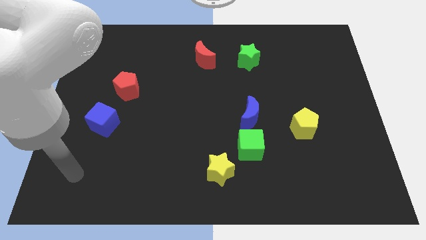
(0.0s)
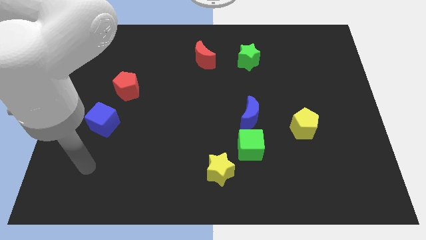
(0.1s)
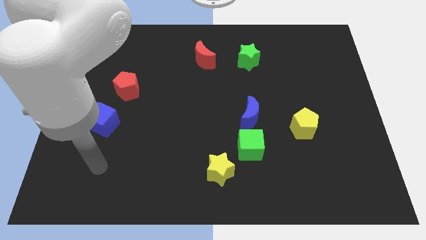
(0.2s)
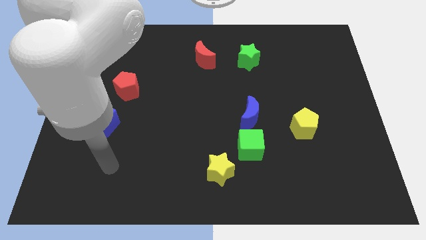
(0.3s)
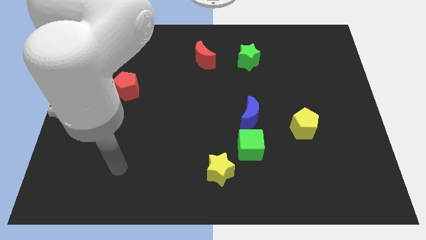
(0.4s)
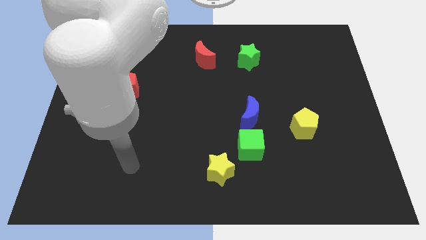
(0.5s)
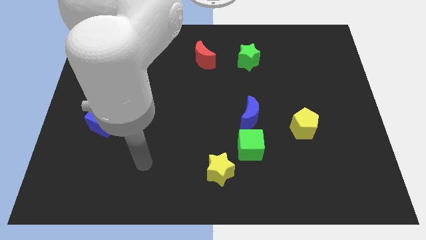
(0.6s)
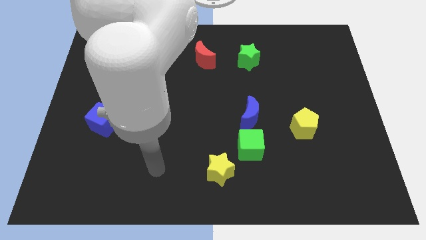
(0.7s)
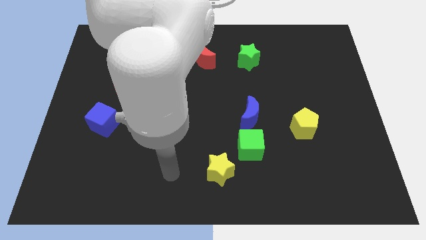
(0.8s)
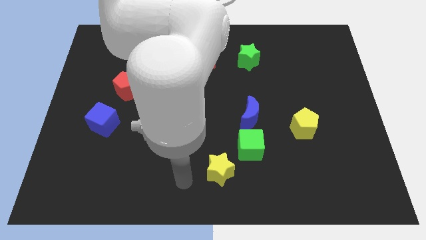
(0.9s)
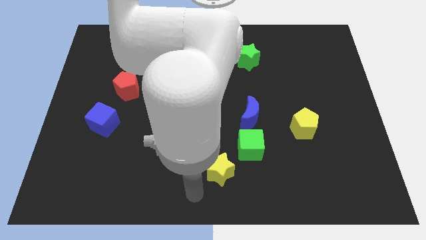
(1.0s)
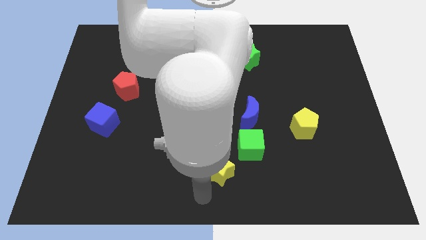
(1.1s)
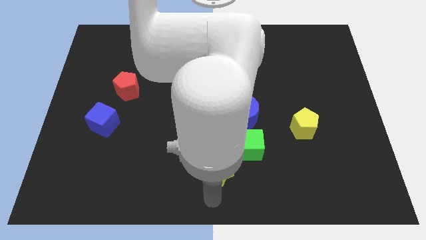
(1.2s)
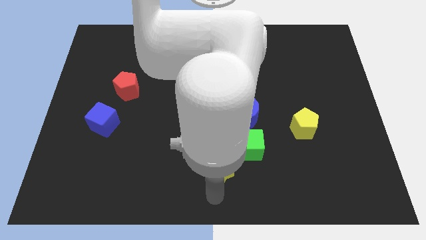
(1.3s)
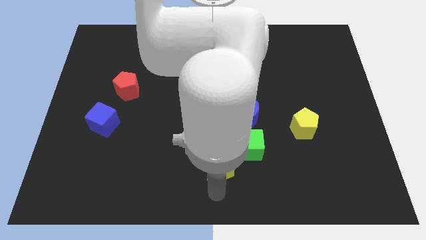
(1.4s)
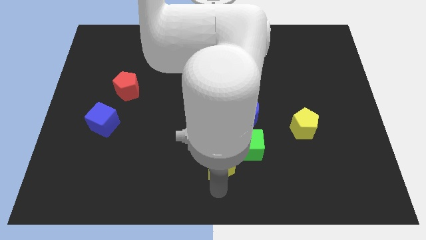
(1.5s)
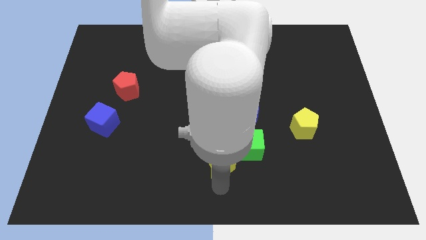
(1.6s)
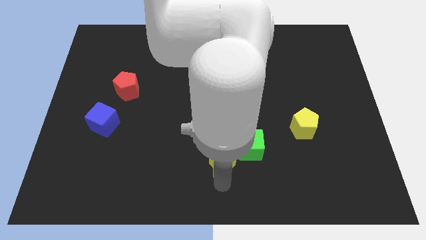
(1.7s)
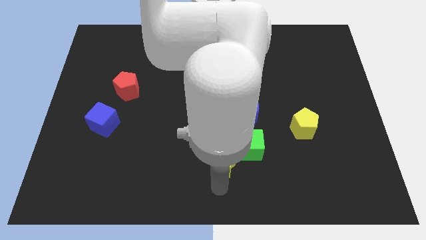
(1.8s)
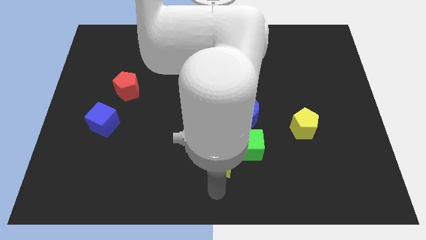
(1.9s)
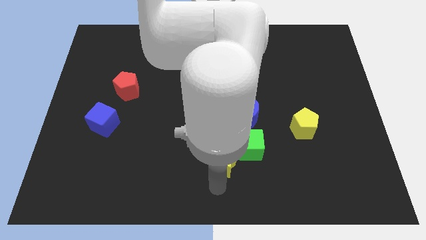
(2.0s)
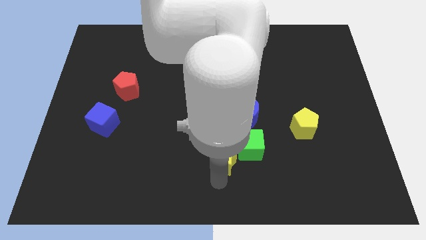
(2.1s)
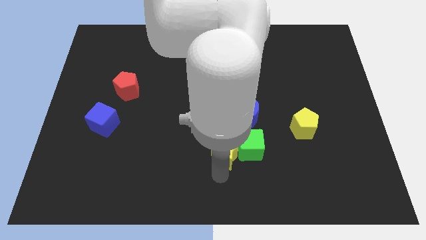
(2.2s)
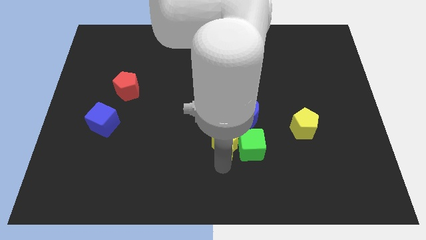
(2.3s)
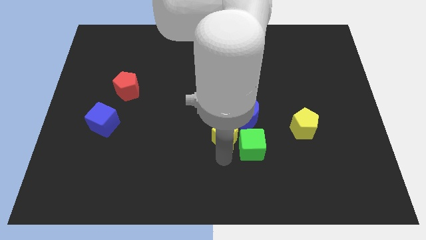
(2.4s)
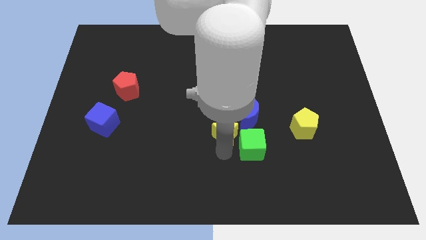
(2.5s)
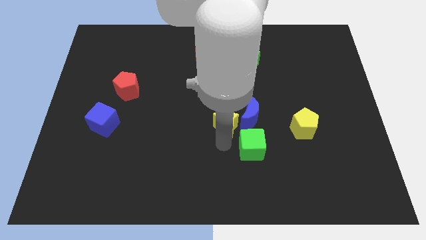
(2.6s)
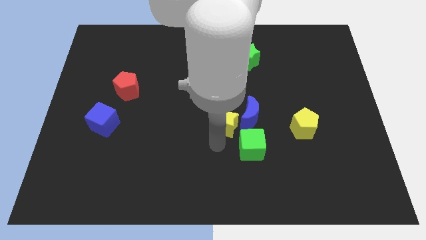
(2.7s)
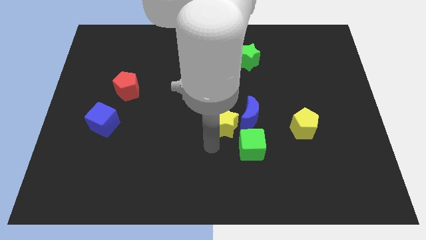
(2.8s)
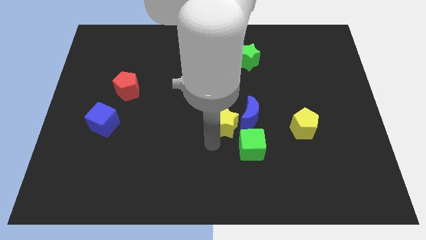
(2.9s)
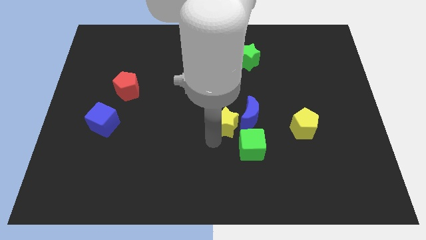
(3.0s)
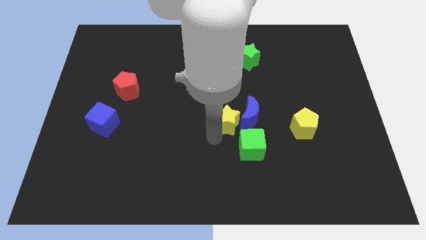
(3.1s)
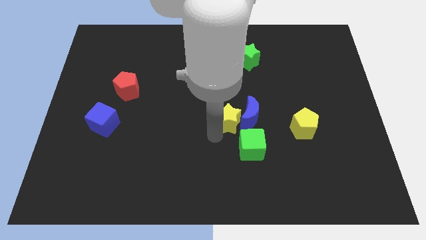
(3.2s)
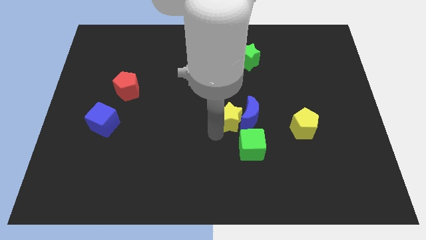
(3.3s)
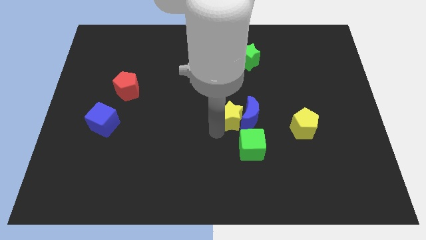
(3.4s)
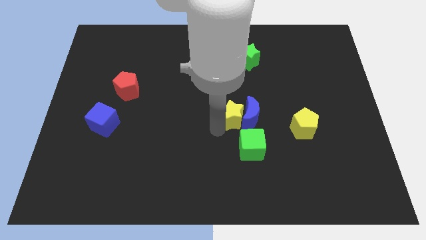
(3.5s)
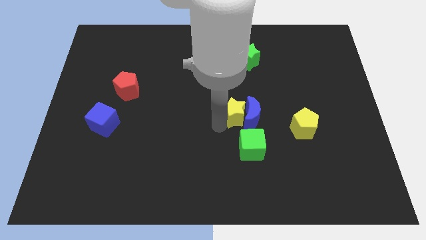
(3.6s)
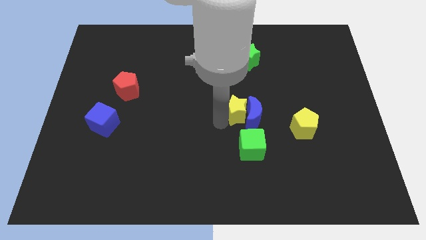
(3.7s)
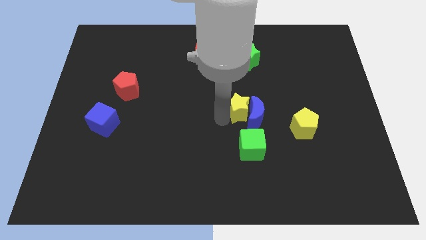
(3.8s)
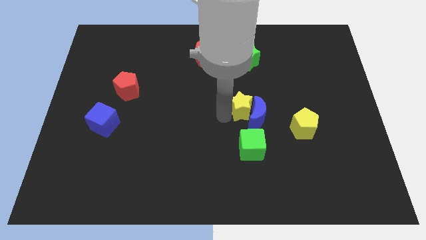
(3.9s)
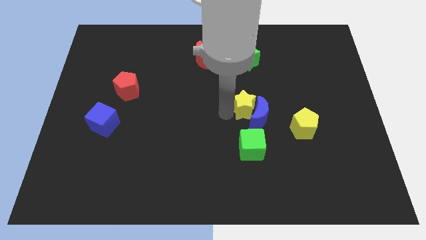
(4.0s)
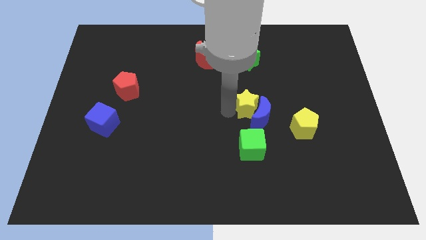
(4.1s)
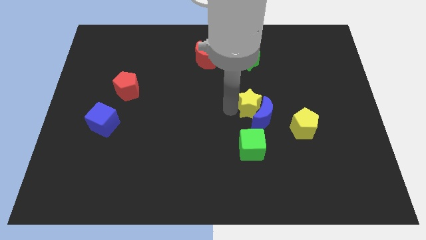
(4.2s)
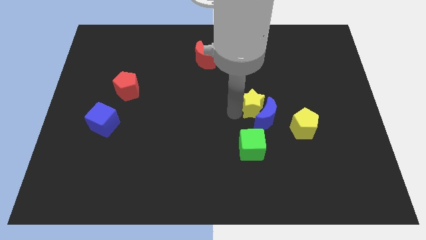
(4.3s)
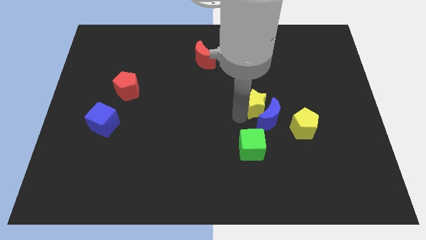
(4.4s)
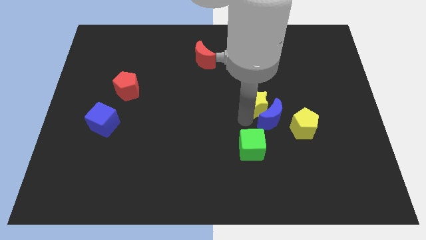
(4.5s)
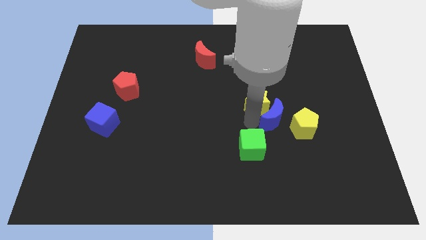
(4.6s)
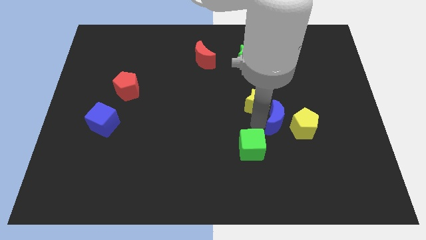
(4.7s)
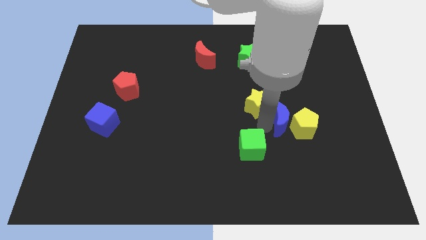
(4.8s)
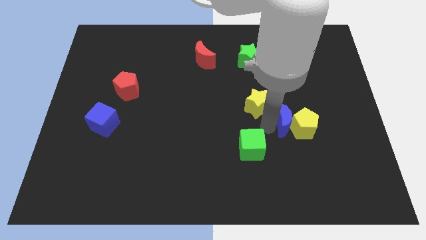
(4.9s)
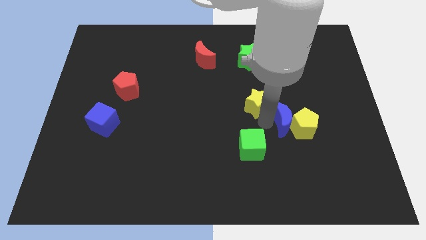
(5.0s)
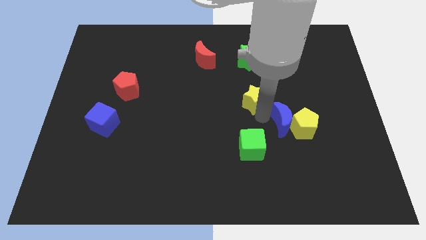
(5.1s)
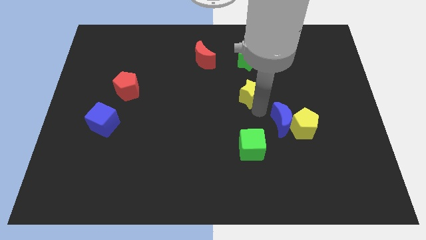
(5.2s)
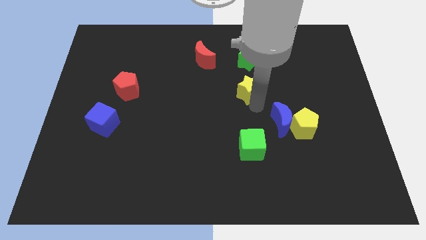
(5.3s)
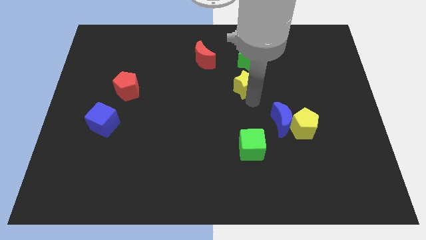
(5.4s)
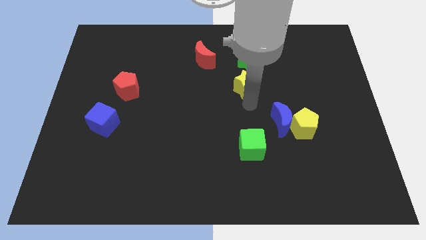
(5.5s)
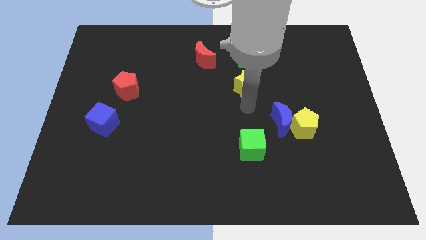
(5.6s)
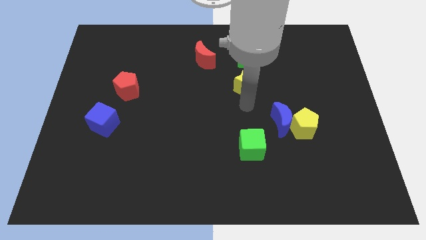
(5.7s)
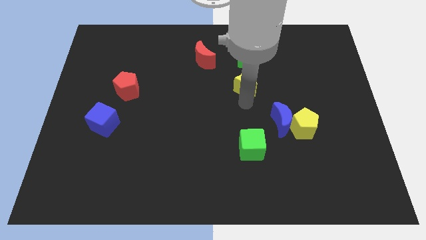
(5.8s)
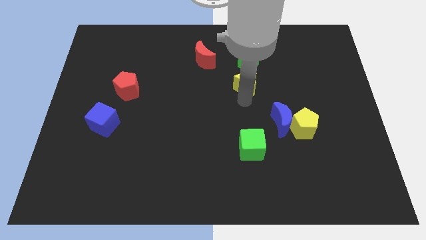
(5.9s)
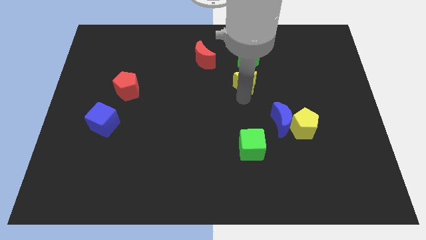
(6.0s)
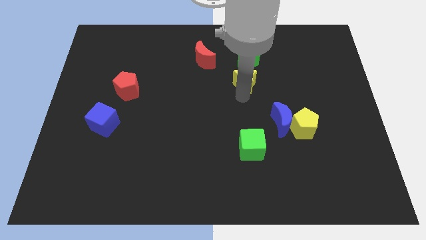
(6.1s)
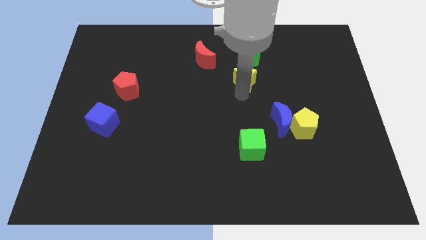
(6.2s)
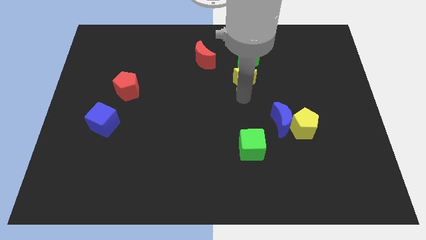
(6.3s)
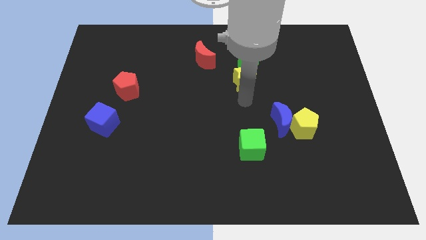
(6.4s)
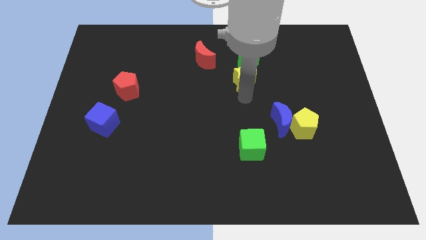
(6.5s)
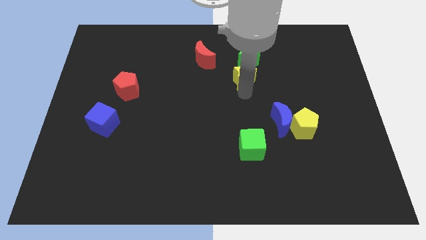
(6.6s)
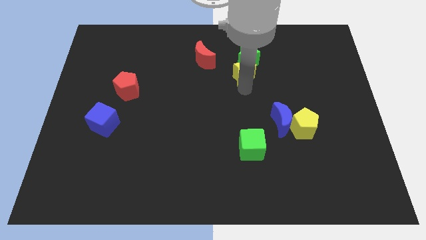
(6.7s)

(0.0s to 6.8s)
push the yellow star towards the green star
